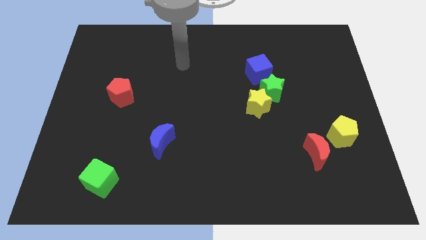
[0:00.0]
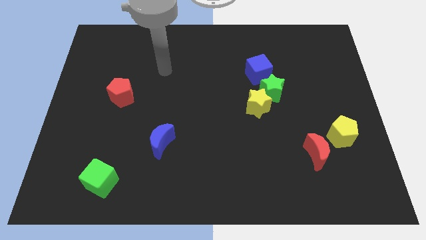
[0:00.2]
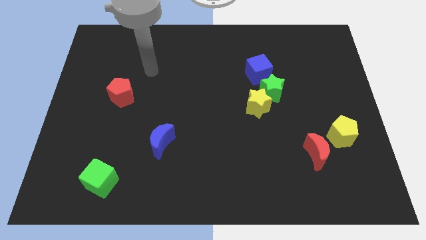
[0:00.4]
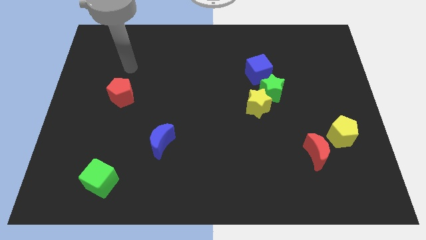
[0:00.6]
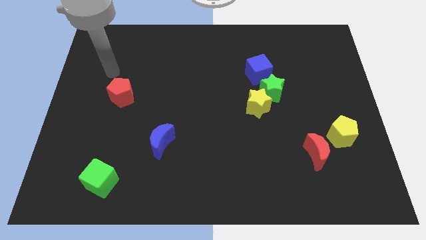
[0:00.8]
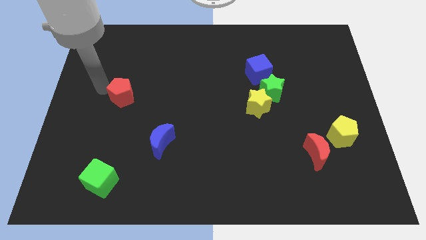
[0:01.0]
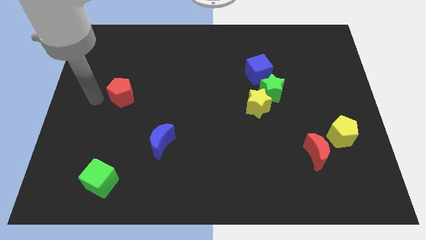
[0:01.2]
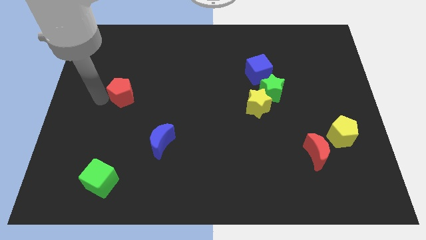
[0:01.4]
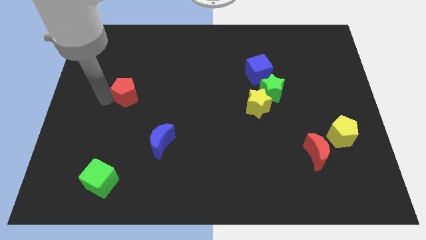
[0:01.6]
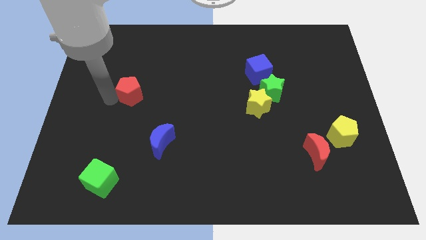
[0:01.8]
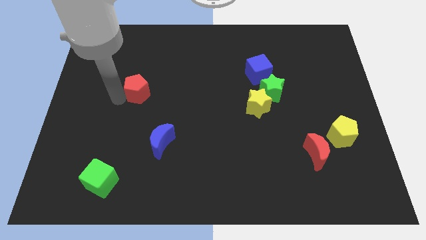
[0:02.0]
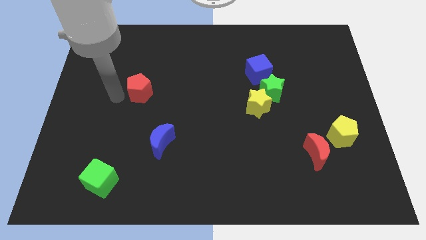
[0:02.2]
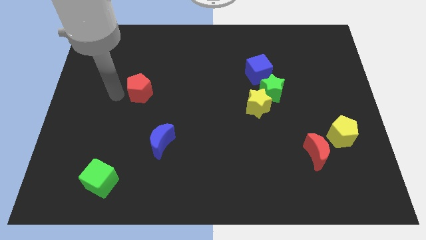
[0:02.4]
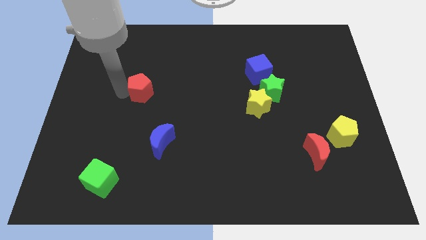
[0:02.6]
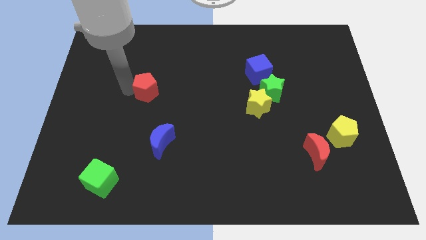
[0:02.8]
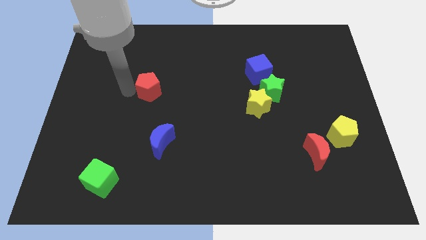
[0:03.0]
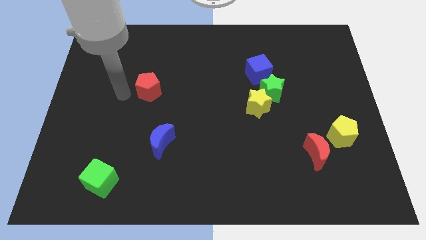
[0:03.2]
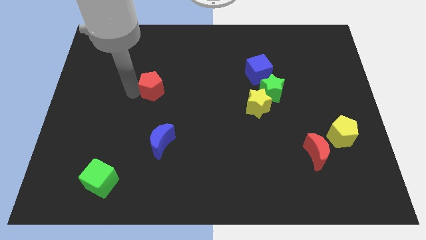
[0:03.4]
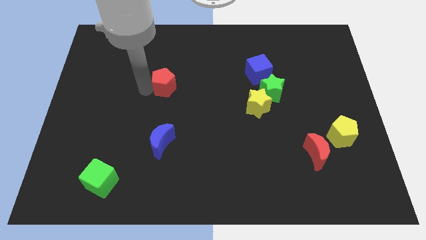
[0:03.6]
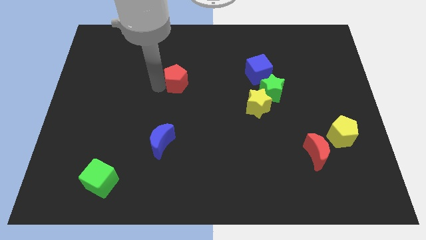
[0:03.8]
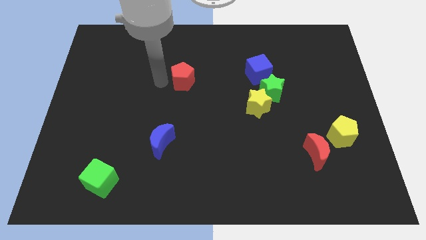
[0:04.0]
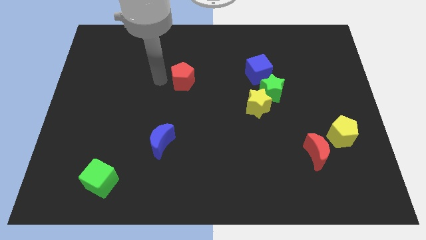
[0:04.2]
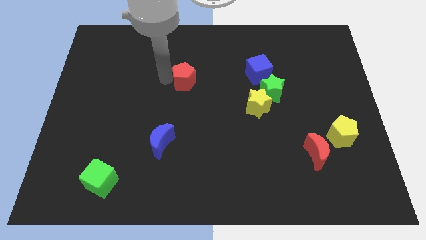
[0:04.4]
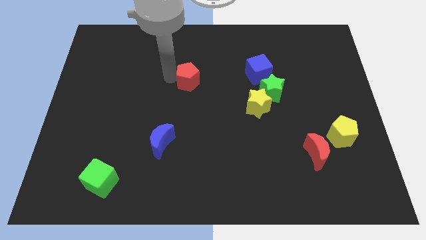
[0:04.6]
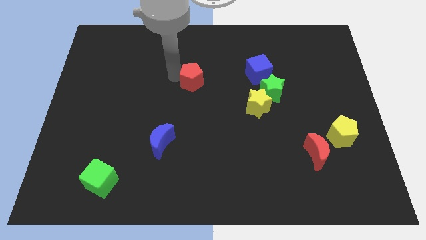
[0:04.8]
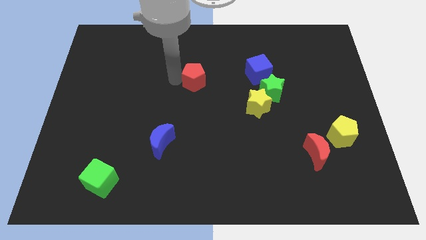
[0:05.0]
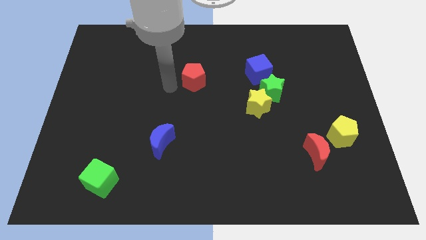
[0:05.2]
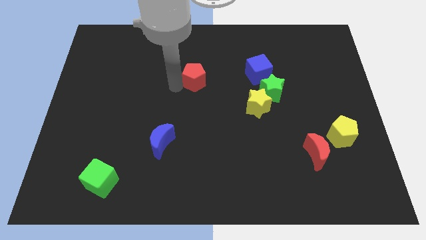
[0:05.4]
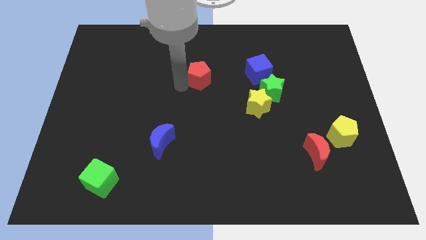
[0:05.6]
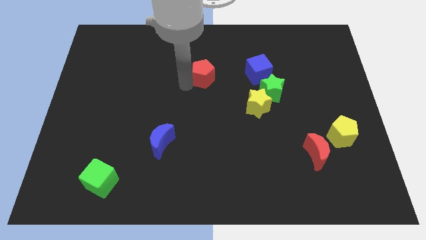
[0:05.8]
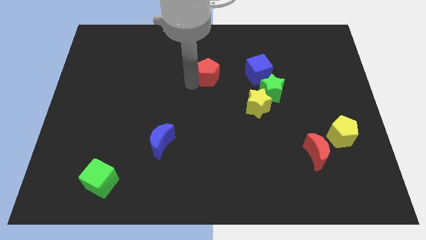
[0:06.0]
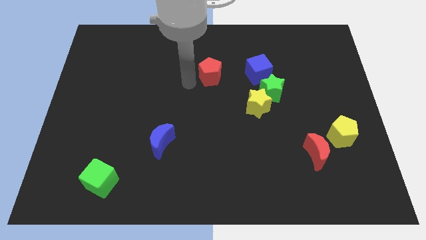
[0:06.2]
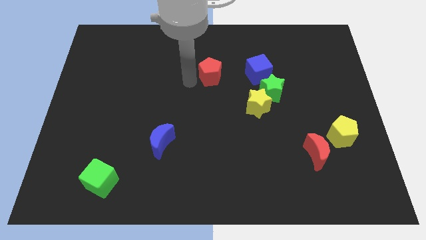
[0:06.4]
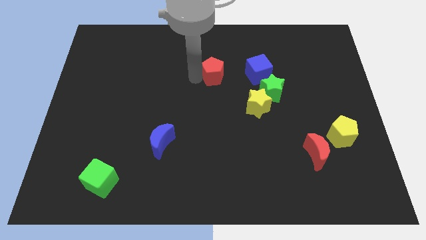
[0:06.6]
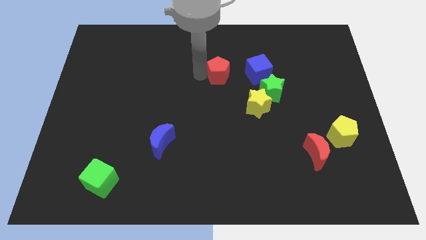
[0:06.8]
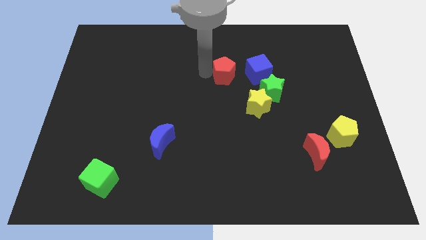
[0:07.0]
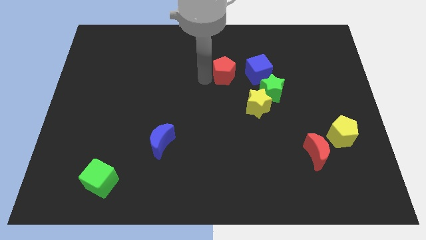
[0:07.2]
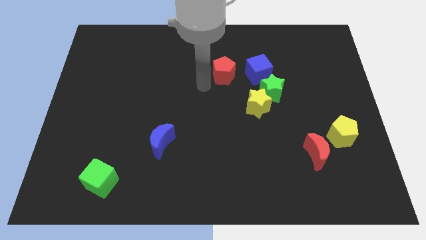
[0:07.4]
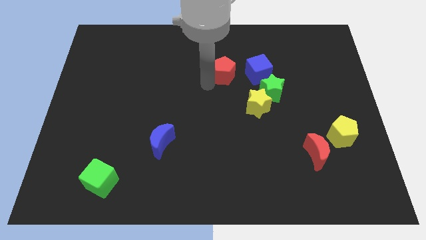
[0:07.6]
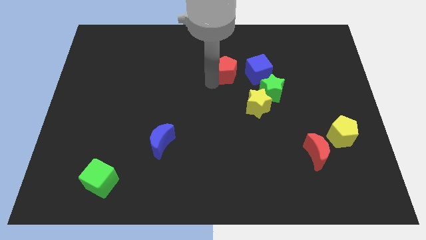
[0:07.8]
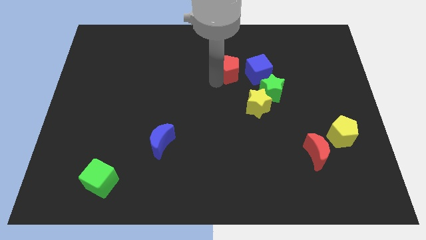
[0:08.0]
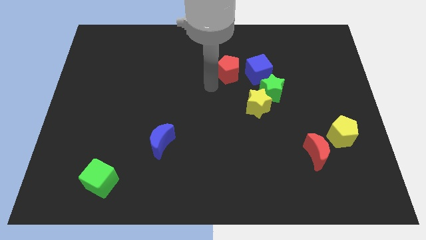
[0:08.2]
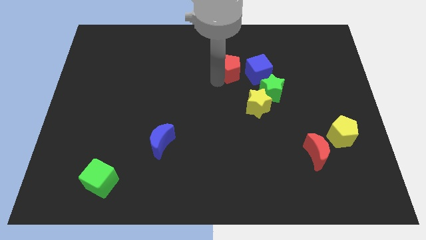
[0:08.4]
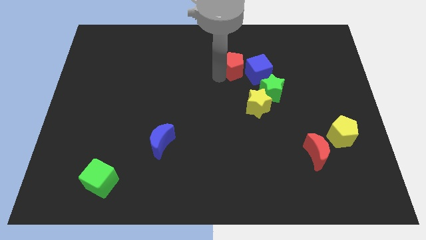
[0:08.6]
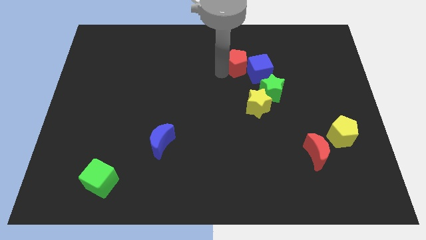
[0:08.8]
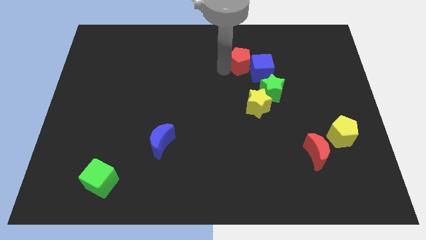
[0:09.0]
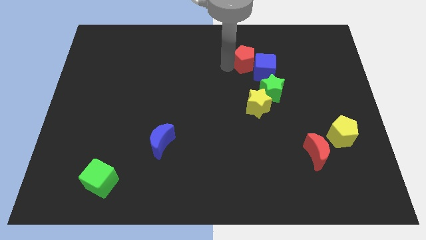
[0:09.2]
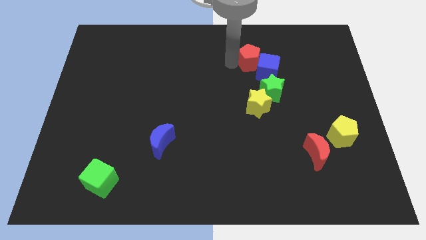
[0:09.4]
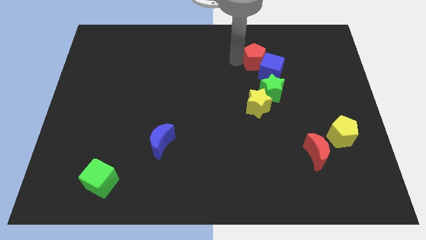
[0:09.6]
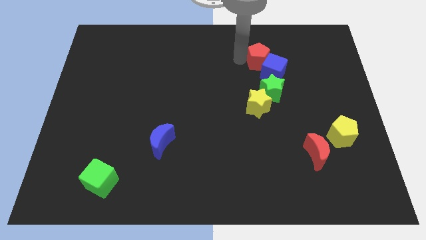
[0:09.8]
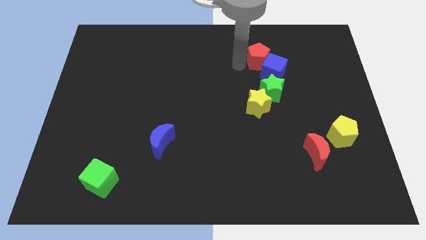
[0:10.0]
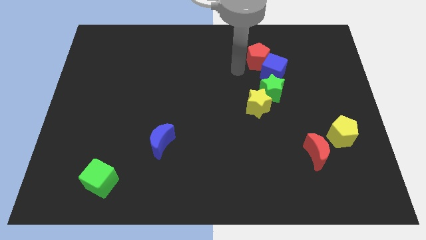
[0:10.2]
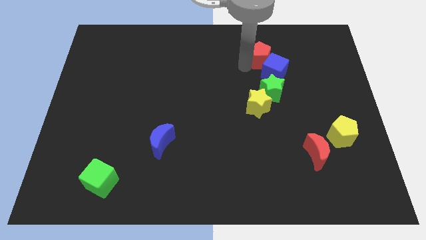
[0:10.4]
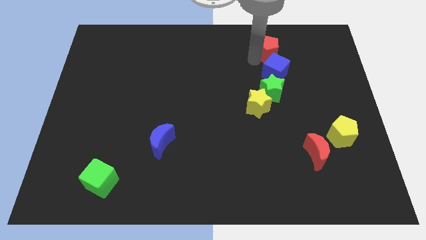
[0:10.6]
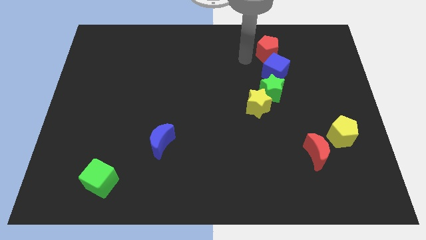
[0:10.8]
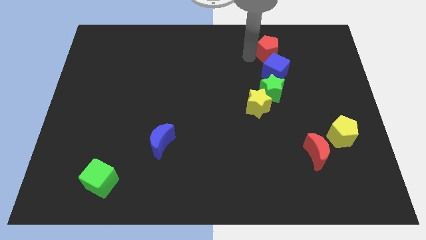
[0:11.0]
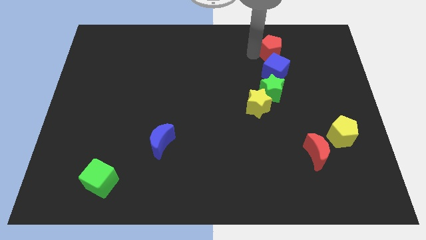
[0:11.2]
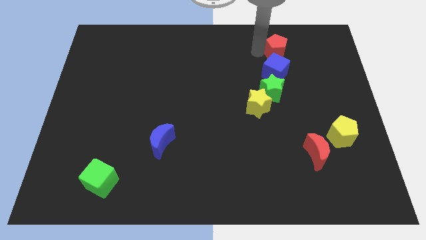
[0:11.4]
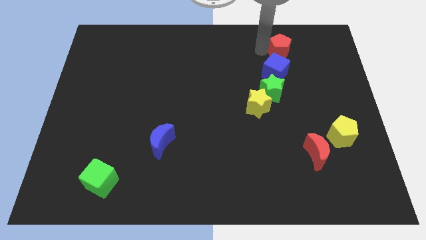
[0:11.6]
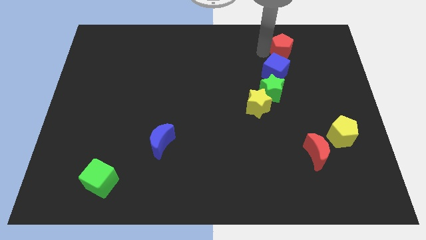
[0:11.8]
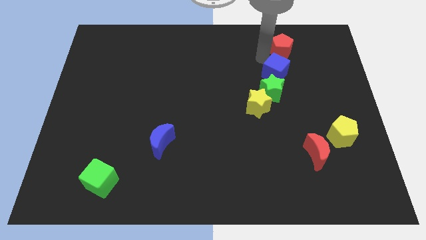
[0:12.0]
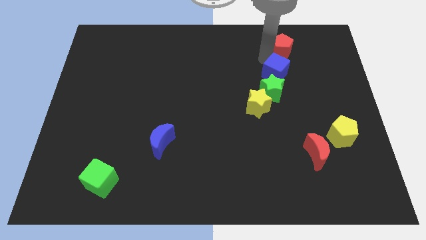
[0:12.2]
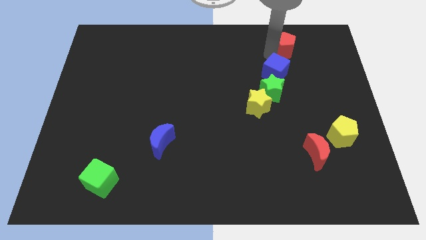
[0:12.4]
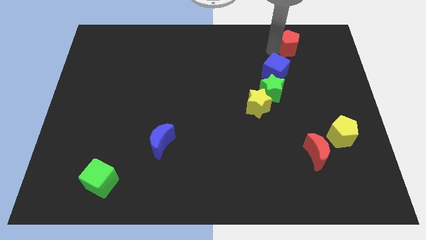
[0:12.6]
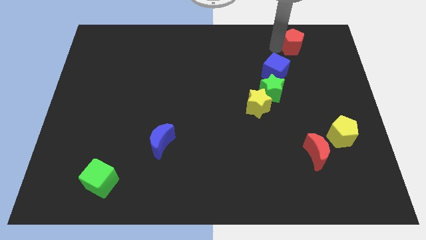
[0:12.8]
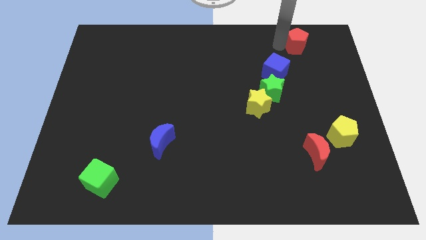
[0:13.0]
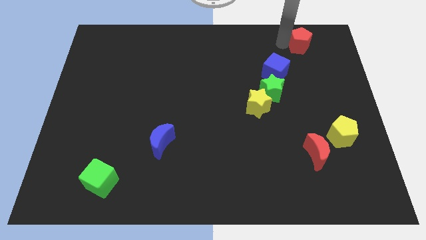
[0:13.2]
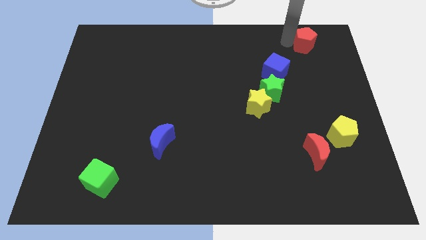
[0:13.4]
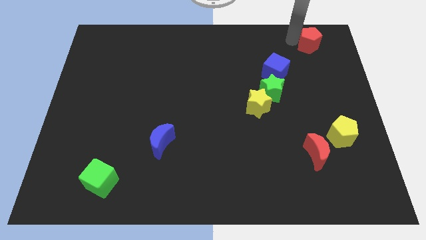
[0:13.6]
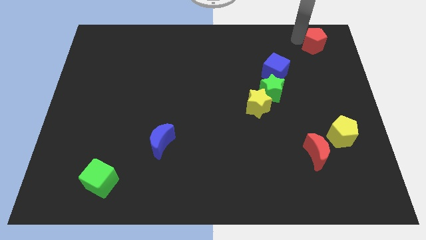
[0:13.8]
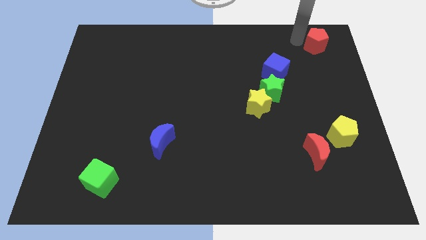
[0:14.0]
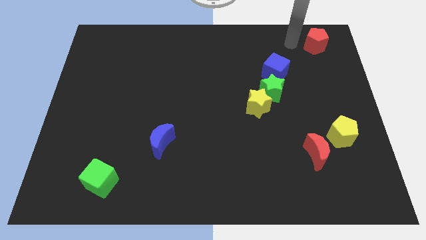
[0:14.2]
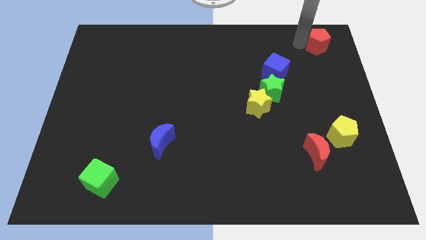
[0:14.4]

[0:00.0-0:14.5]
put the red pentagon to the top right of the board
